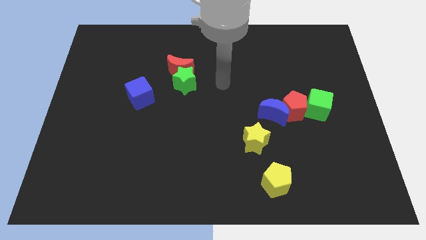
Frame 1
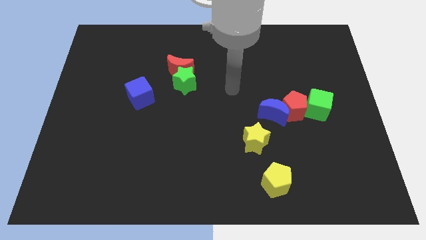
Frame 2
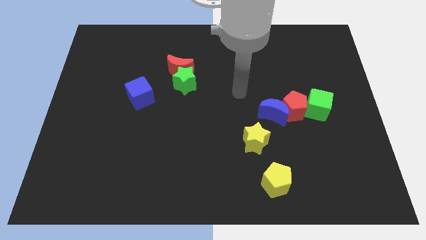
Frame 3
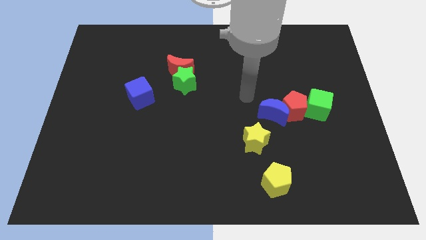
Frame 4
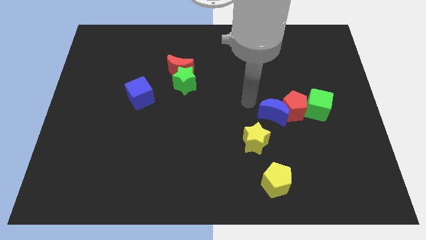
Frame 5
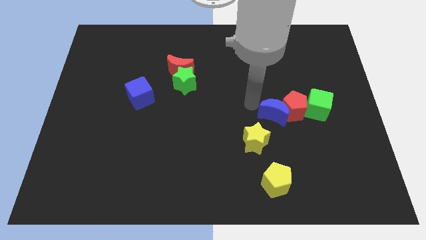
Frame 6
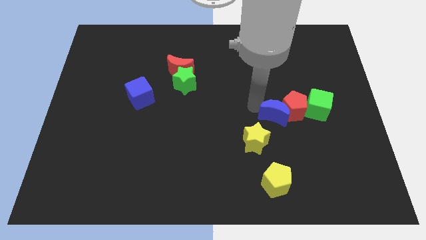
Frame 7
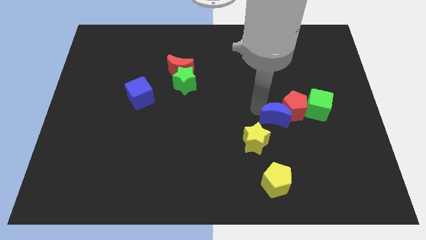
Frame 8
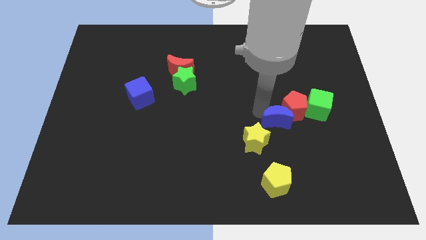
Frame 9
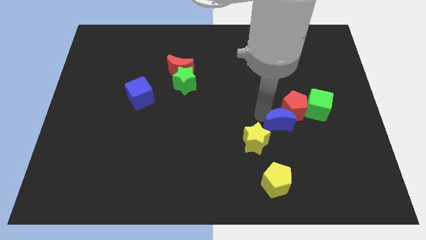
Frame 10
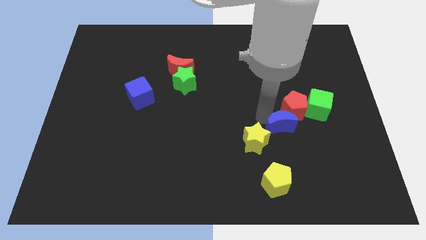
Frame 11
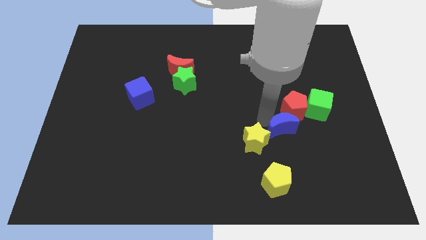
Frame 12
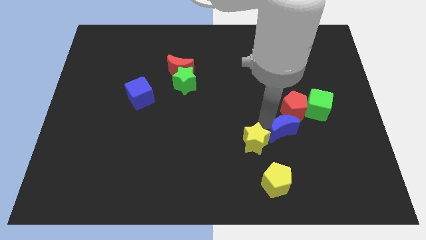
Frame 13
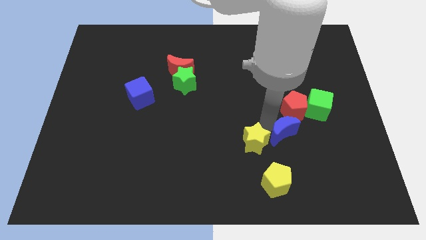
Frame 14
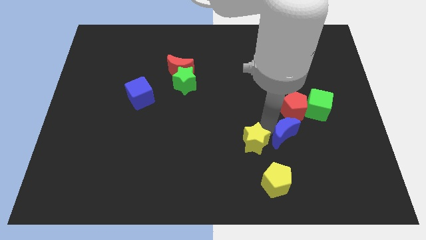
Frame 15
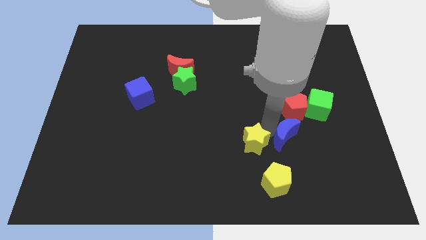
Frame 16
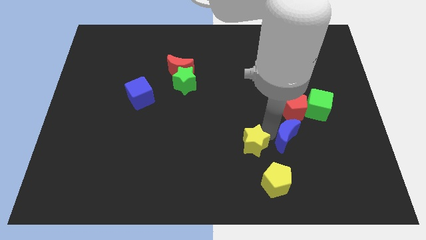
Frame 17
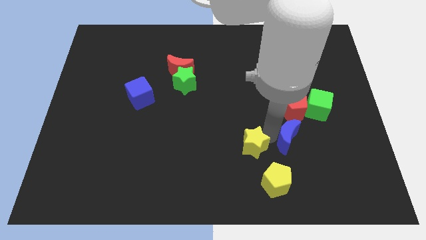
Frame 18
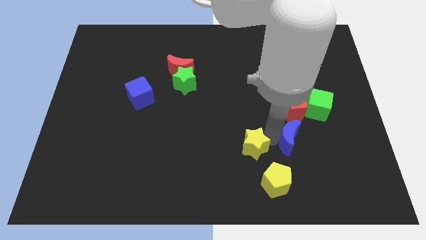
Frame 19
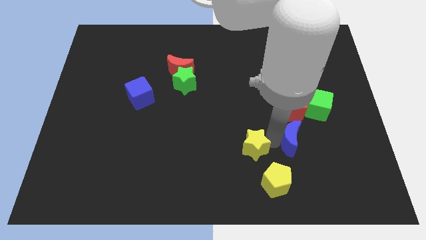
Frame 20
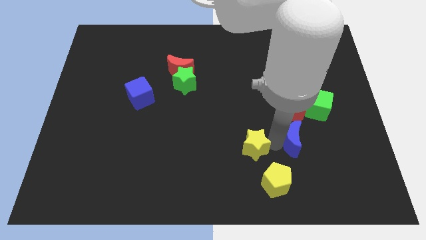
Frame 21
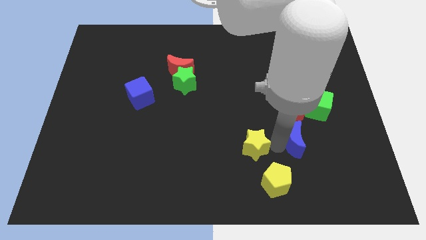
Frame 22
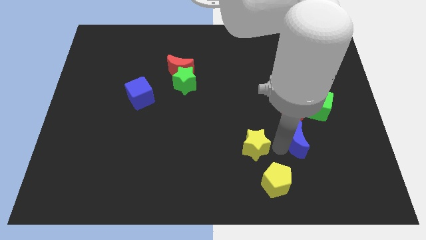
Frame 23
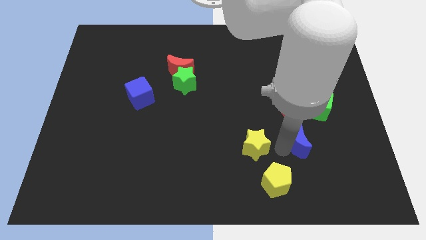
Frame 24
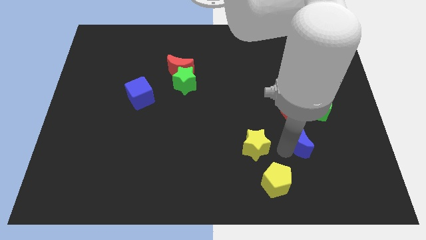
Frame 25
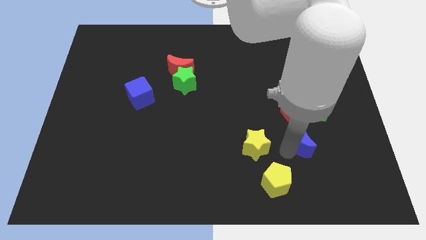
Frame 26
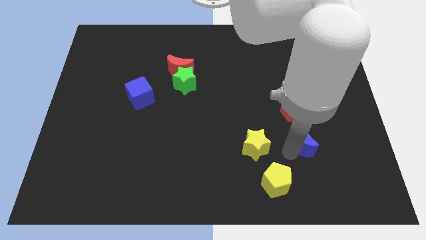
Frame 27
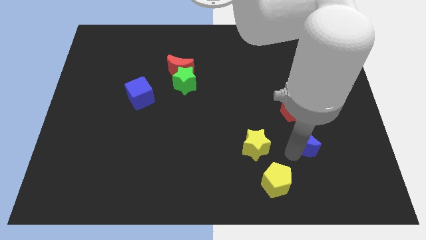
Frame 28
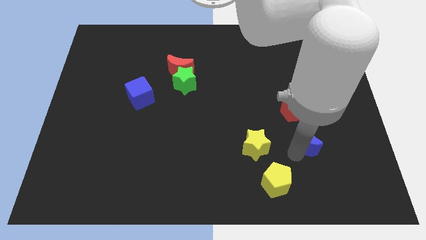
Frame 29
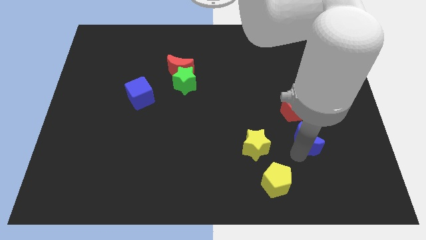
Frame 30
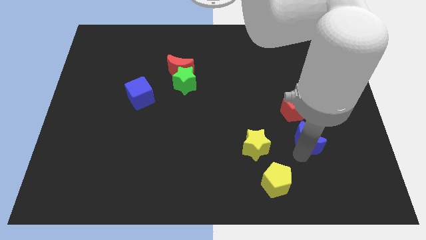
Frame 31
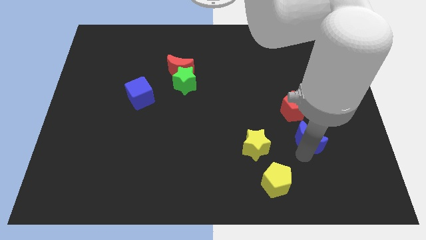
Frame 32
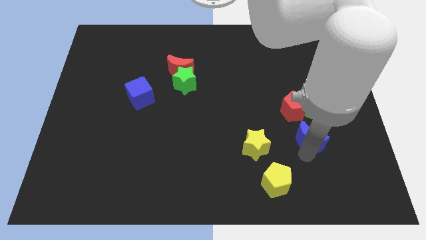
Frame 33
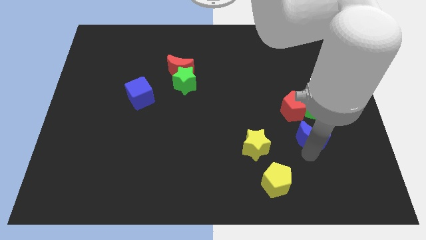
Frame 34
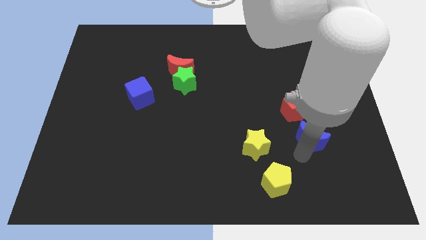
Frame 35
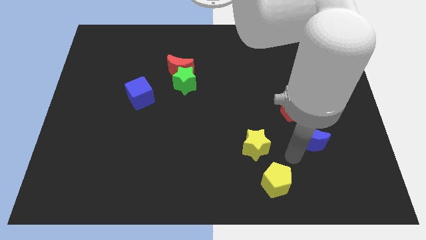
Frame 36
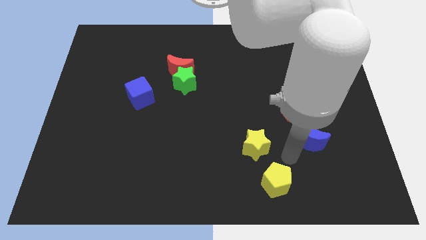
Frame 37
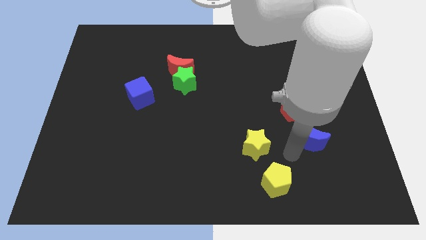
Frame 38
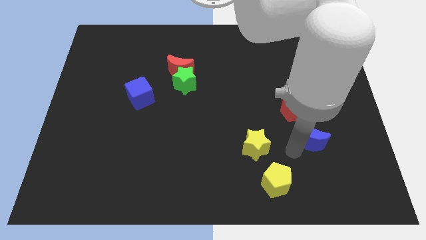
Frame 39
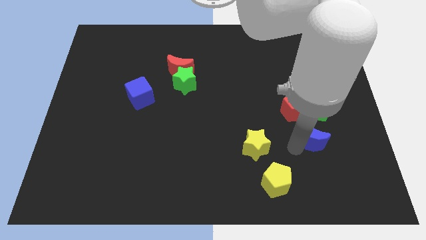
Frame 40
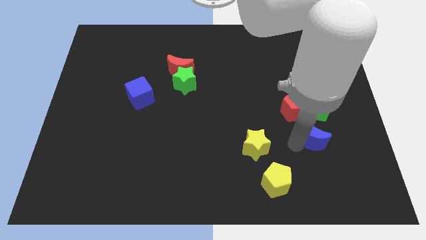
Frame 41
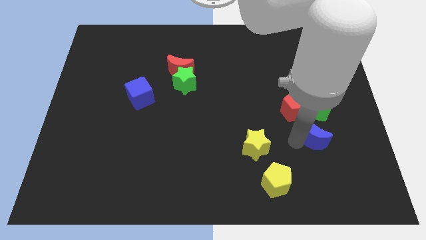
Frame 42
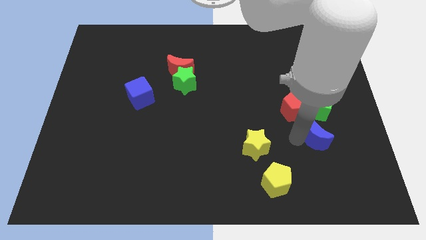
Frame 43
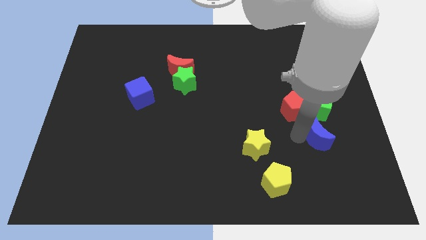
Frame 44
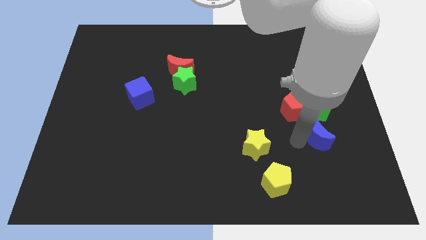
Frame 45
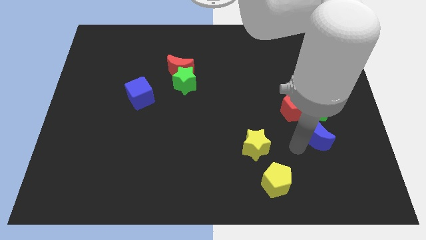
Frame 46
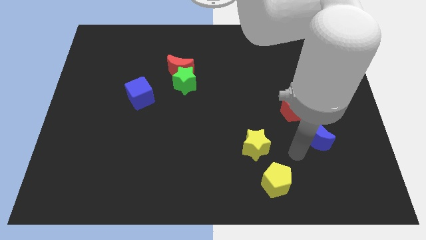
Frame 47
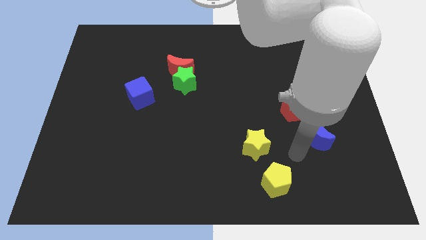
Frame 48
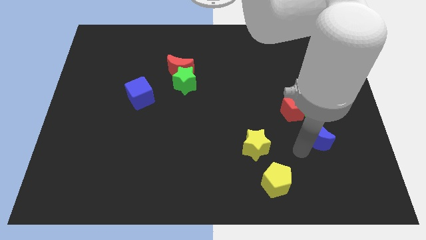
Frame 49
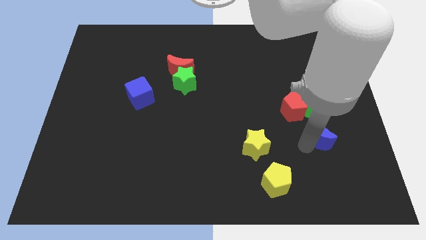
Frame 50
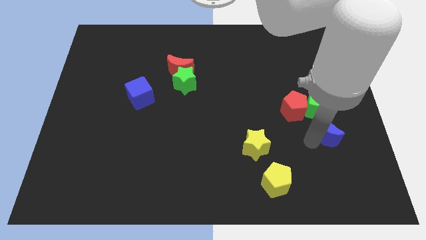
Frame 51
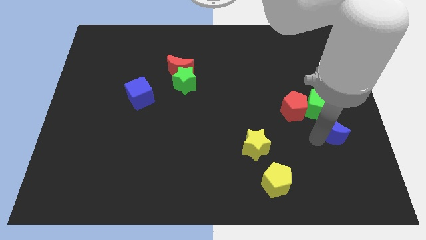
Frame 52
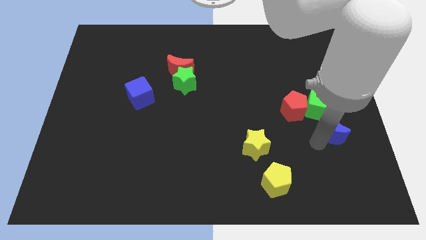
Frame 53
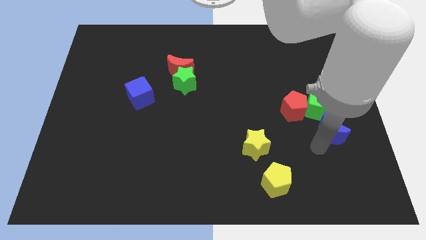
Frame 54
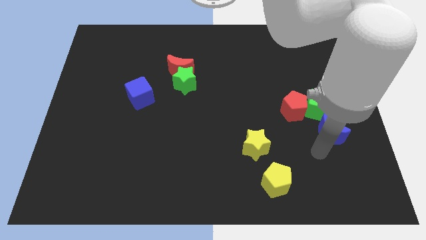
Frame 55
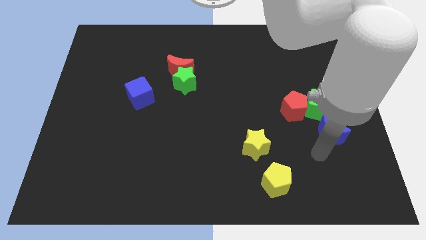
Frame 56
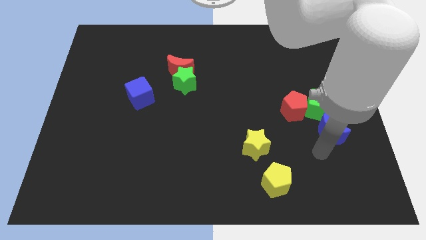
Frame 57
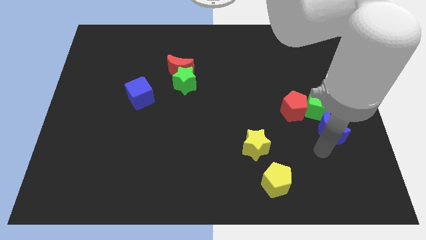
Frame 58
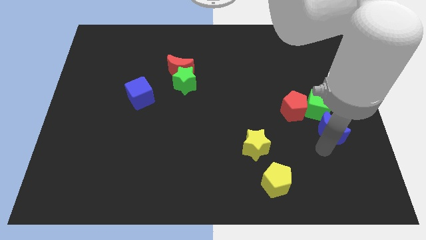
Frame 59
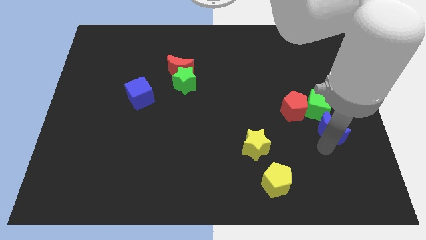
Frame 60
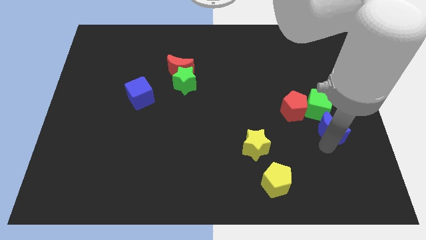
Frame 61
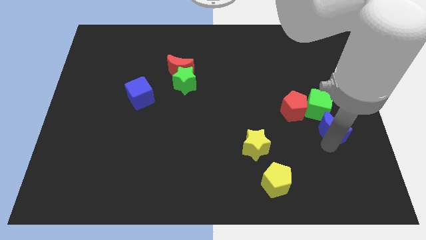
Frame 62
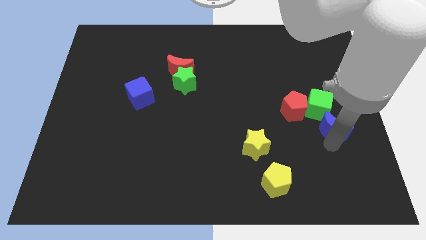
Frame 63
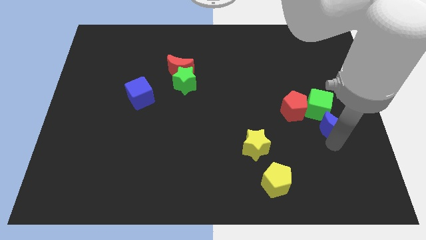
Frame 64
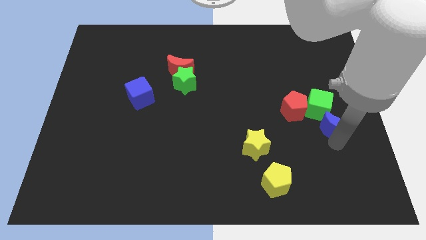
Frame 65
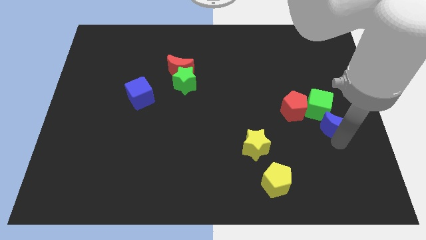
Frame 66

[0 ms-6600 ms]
move the blue moon to the right side
